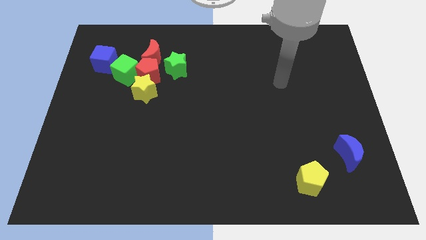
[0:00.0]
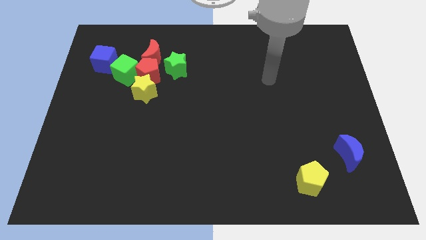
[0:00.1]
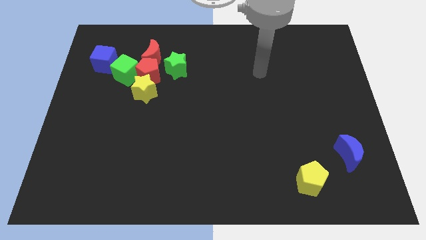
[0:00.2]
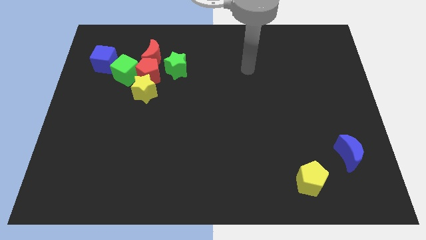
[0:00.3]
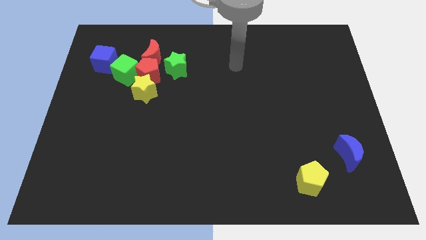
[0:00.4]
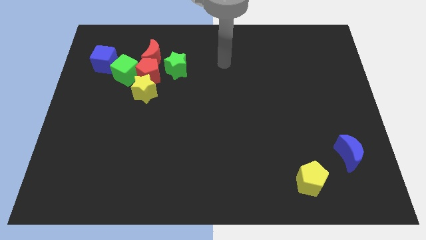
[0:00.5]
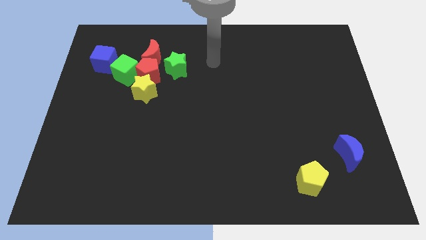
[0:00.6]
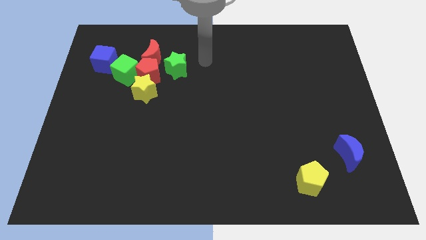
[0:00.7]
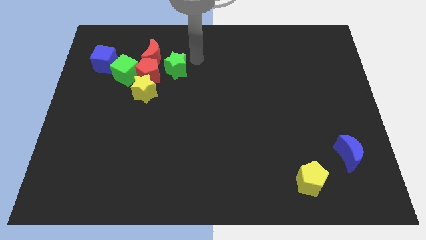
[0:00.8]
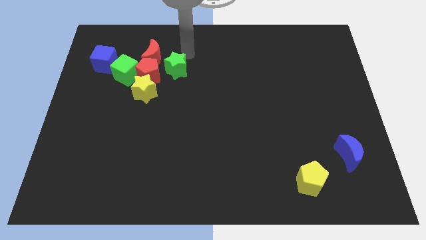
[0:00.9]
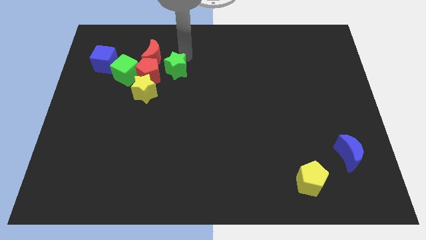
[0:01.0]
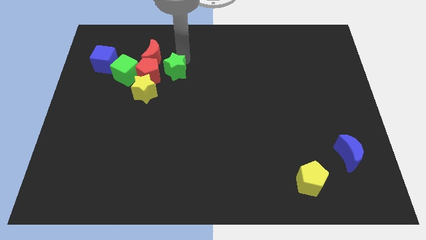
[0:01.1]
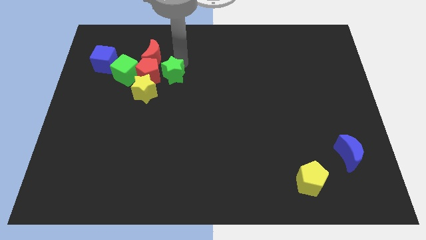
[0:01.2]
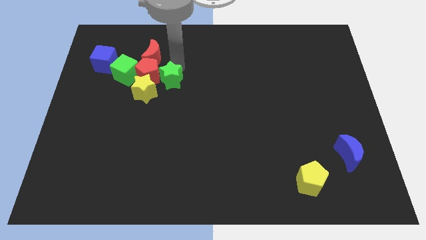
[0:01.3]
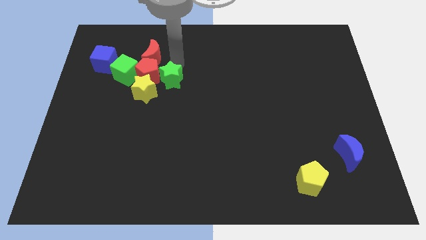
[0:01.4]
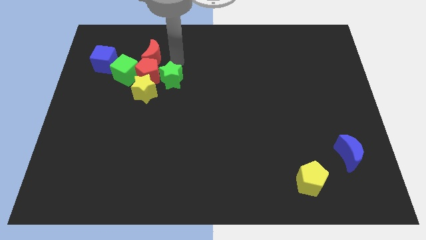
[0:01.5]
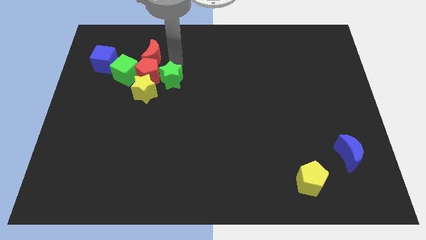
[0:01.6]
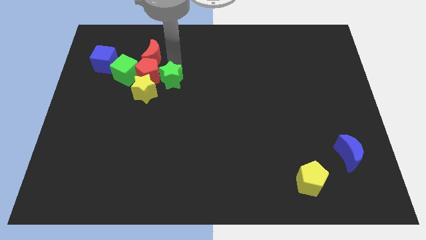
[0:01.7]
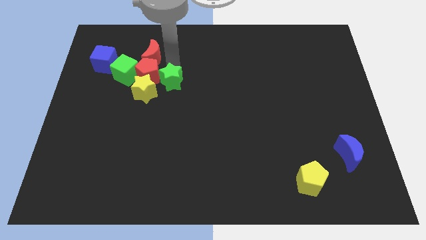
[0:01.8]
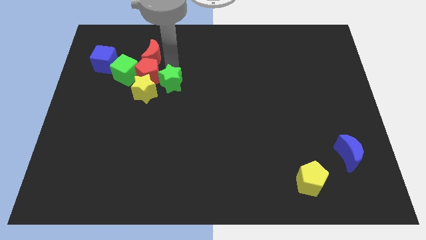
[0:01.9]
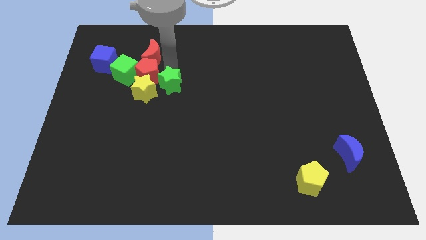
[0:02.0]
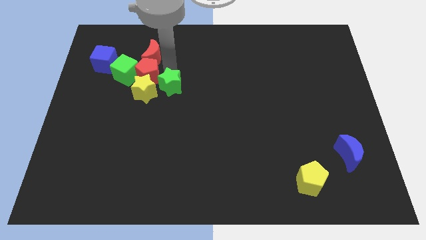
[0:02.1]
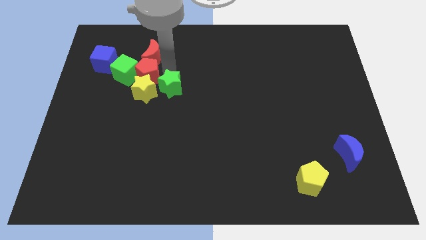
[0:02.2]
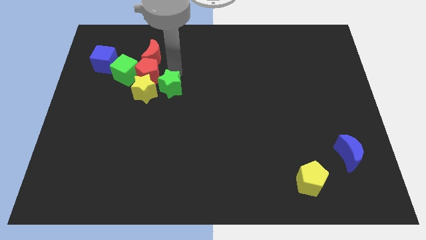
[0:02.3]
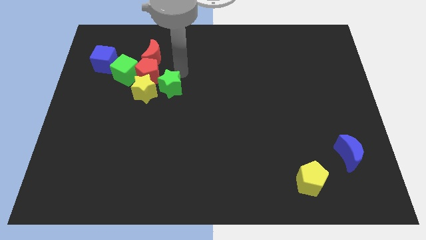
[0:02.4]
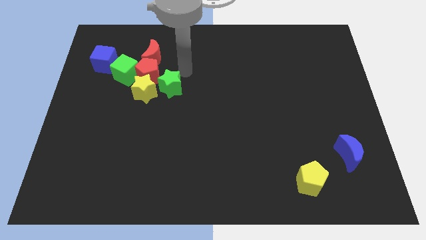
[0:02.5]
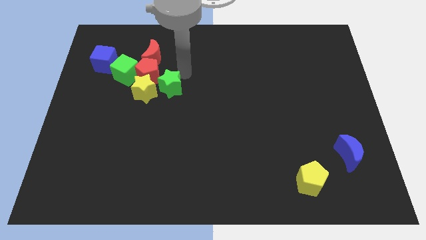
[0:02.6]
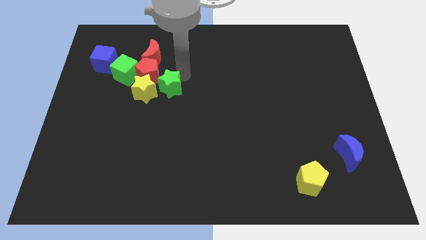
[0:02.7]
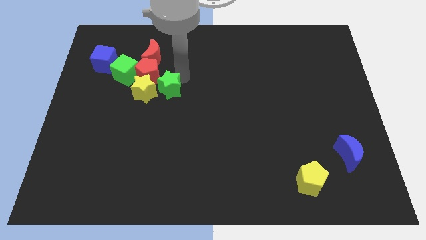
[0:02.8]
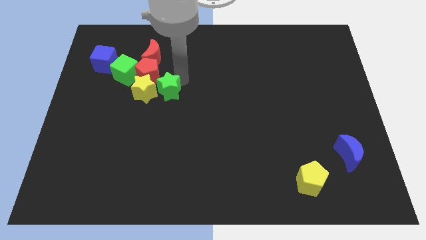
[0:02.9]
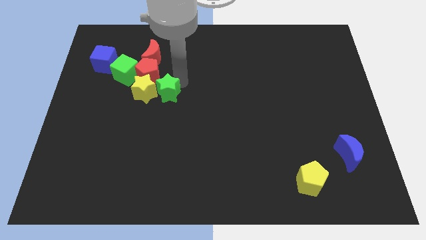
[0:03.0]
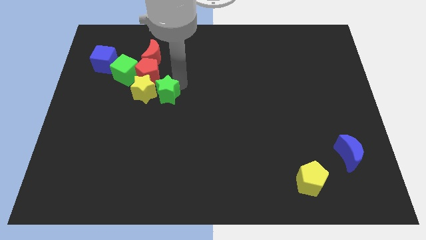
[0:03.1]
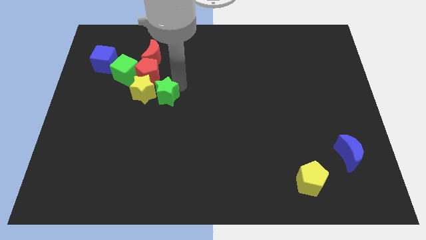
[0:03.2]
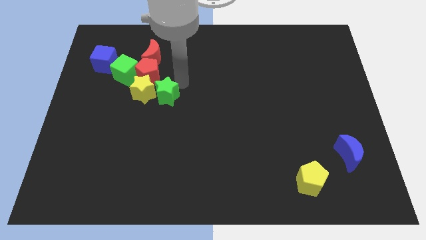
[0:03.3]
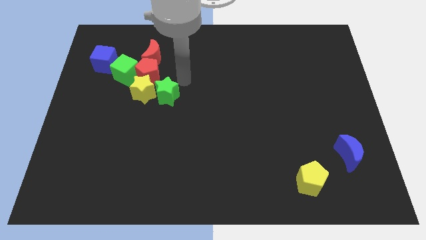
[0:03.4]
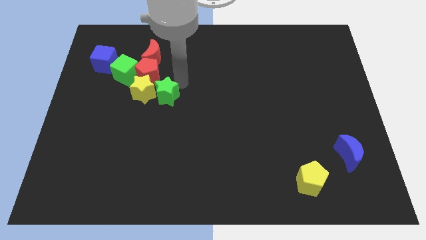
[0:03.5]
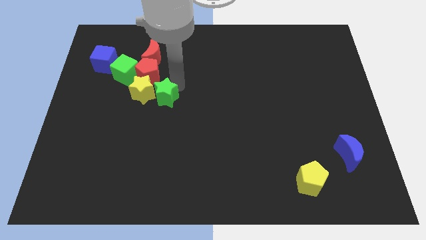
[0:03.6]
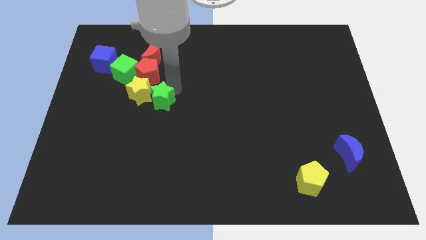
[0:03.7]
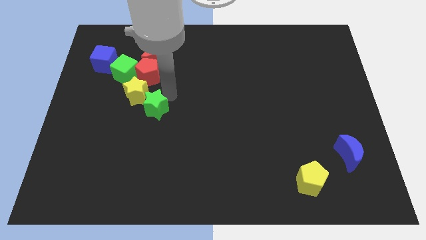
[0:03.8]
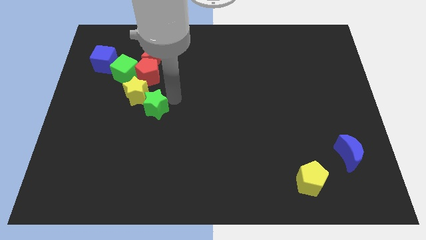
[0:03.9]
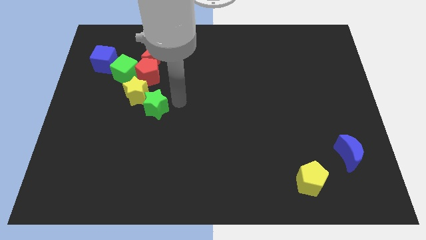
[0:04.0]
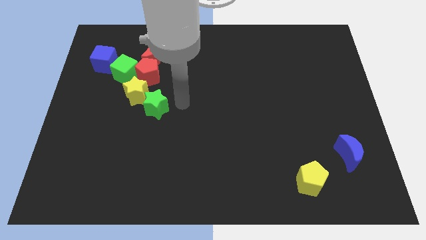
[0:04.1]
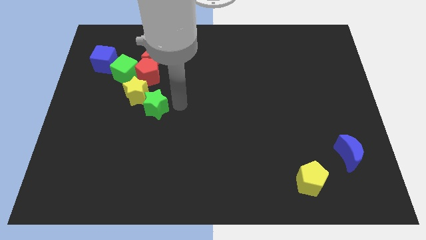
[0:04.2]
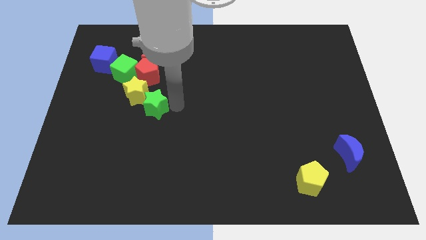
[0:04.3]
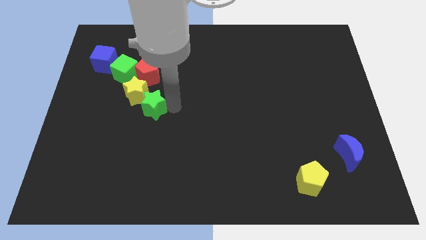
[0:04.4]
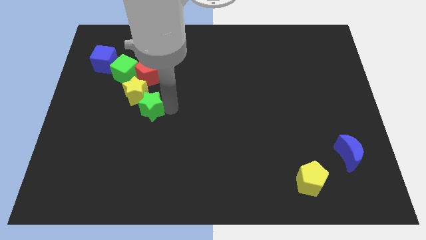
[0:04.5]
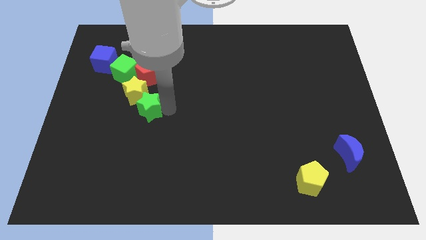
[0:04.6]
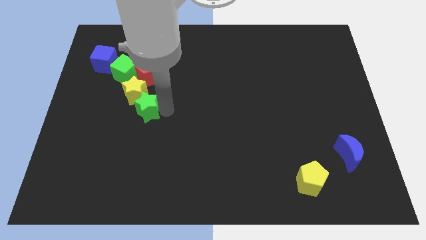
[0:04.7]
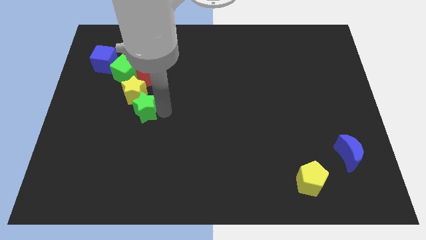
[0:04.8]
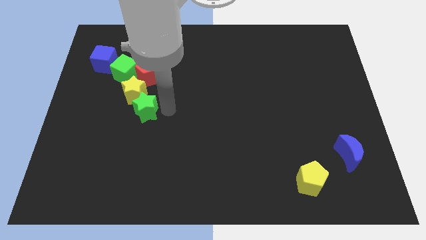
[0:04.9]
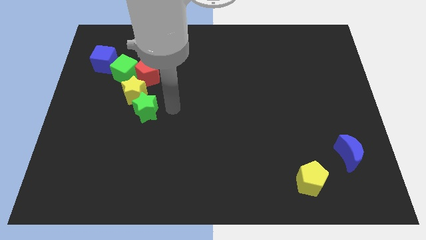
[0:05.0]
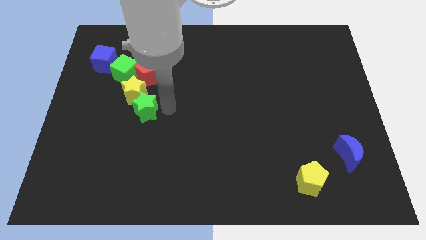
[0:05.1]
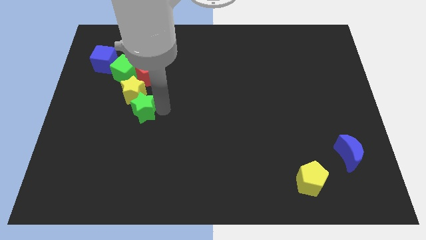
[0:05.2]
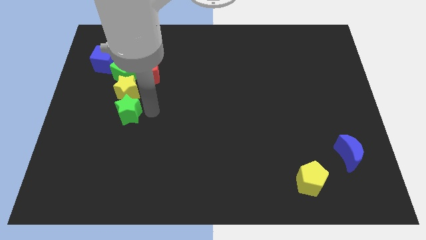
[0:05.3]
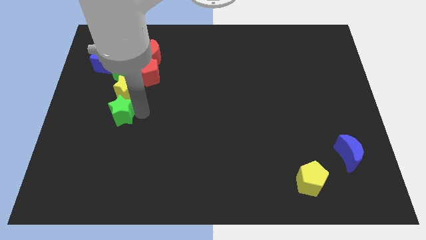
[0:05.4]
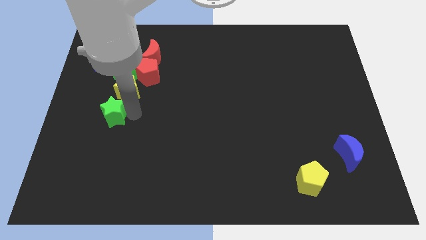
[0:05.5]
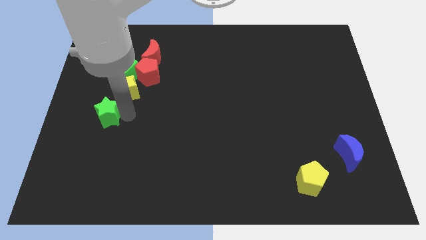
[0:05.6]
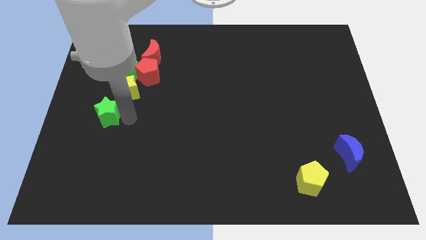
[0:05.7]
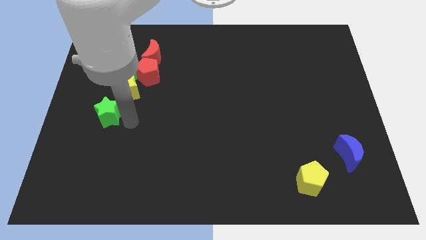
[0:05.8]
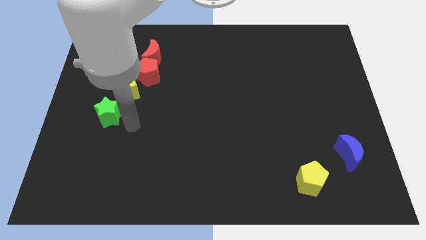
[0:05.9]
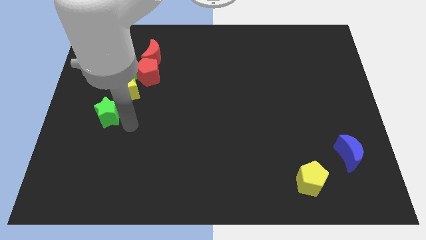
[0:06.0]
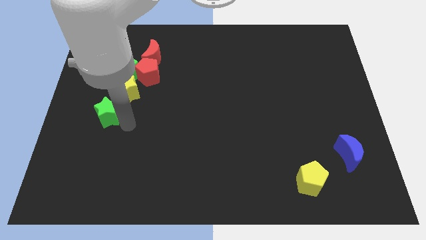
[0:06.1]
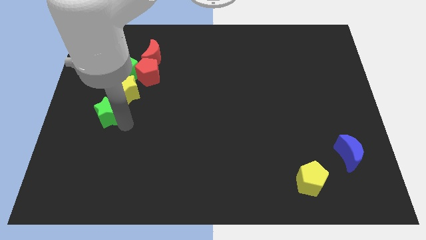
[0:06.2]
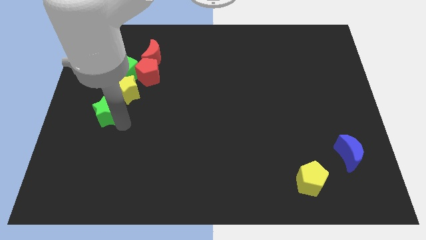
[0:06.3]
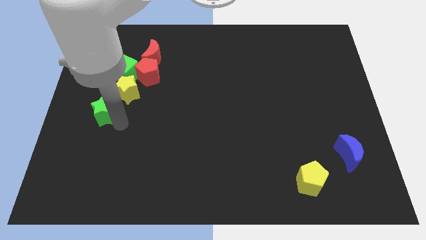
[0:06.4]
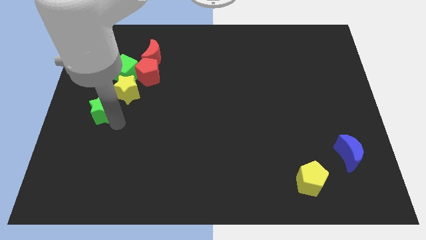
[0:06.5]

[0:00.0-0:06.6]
slide the green star to the left side of the board
